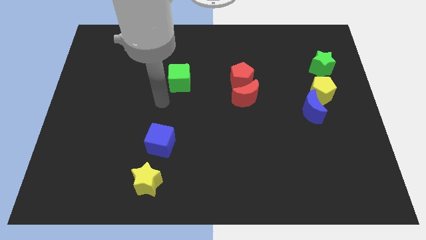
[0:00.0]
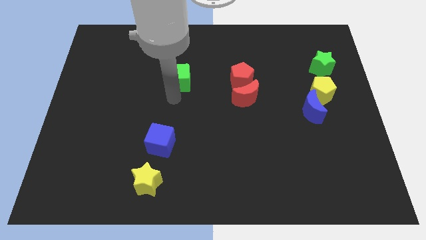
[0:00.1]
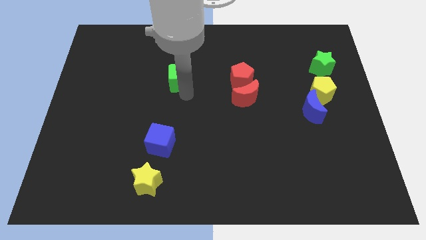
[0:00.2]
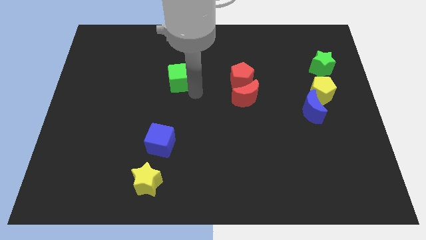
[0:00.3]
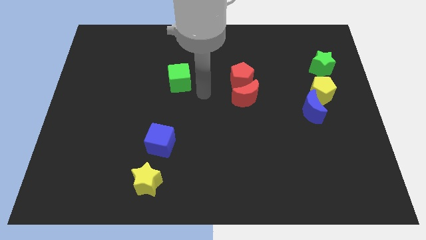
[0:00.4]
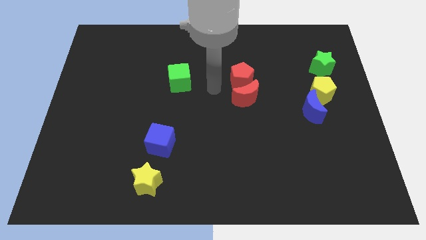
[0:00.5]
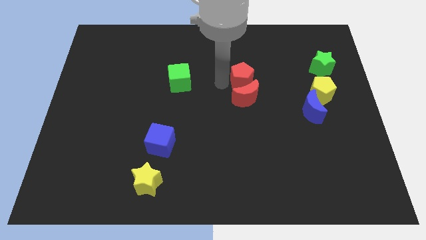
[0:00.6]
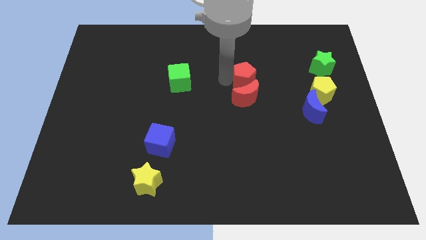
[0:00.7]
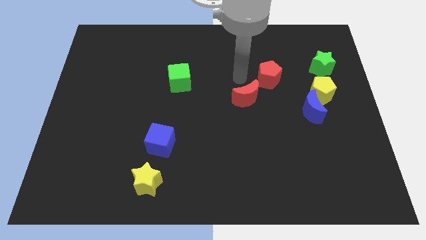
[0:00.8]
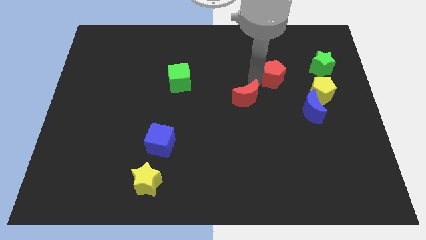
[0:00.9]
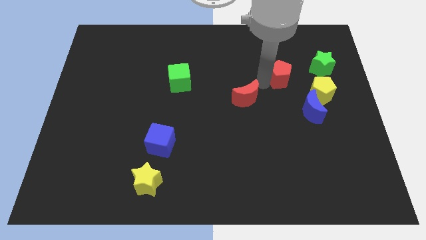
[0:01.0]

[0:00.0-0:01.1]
separate the red moon from the red pentagon

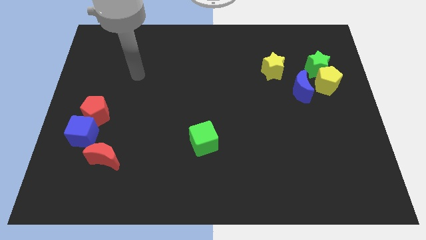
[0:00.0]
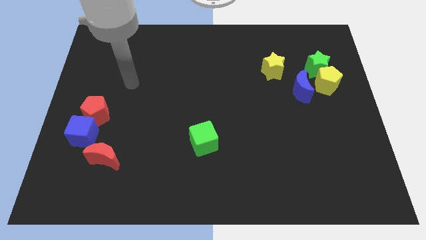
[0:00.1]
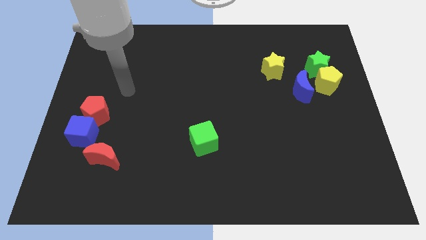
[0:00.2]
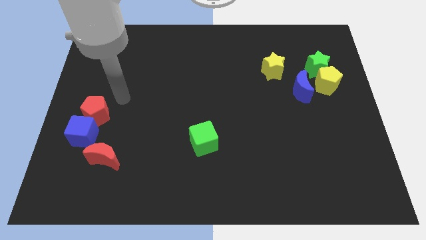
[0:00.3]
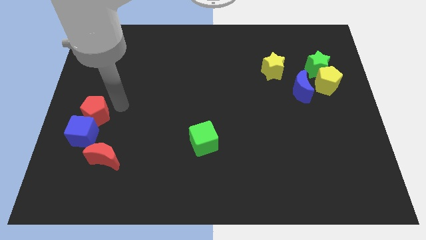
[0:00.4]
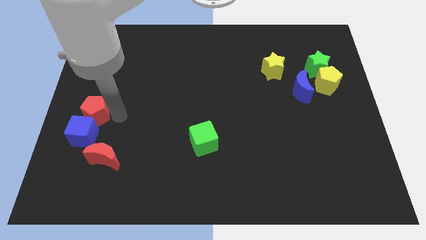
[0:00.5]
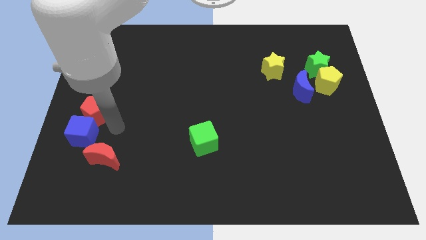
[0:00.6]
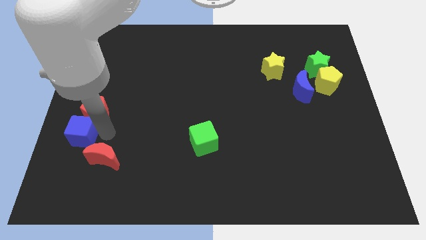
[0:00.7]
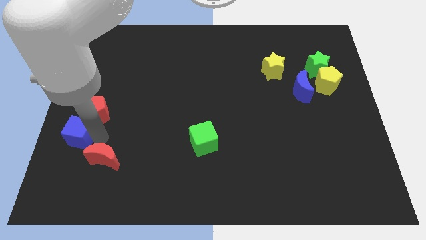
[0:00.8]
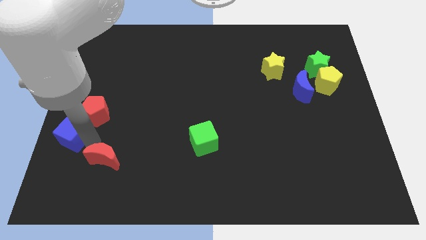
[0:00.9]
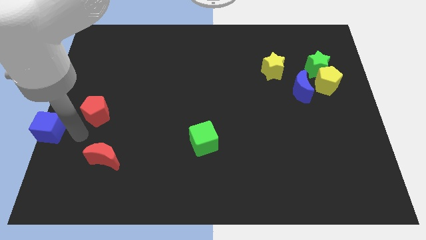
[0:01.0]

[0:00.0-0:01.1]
pull the red pentagon apart from the blue cube

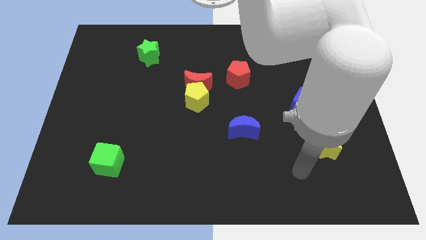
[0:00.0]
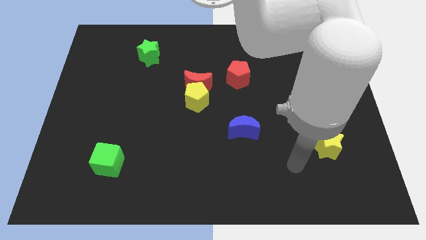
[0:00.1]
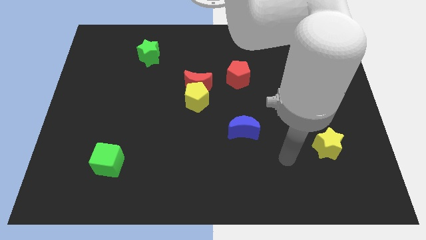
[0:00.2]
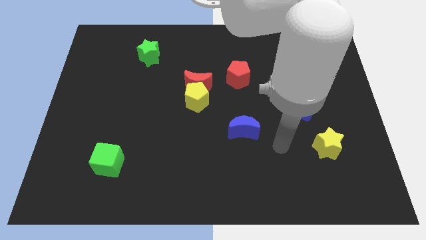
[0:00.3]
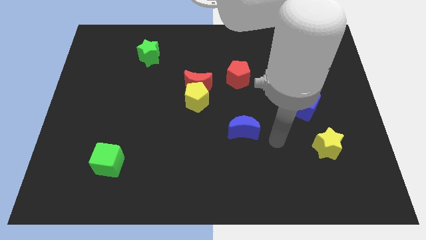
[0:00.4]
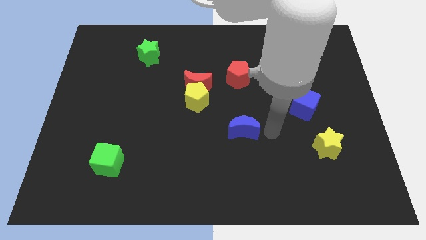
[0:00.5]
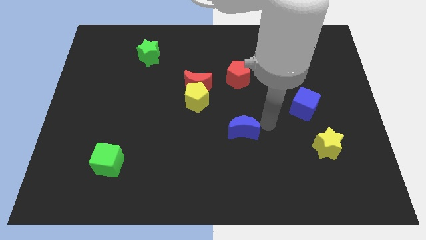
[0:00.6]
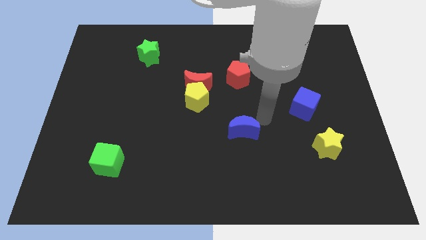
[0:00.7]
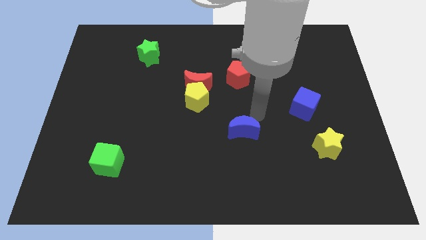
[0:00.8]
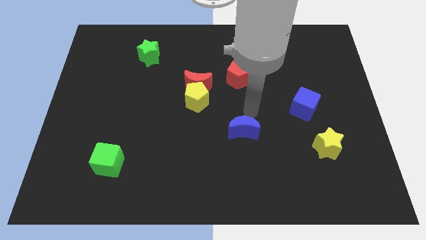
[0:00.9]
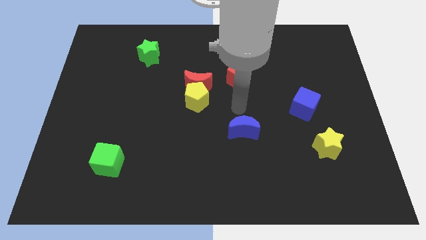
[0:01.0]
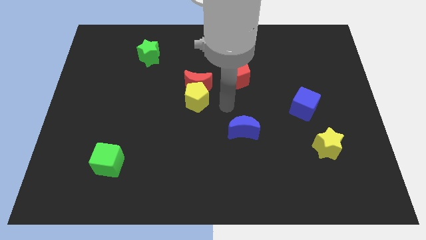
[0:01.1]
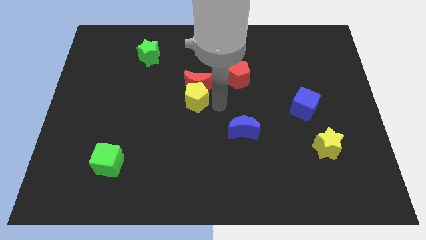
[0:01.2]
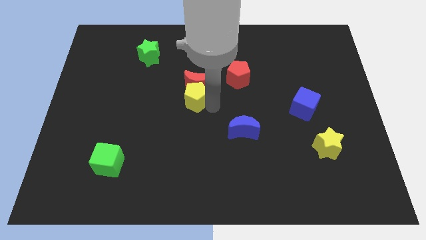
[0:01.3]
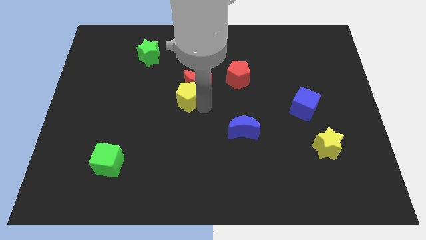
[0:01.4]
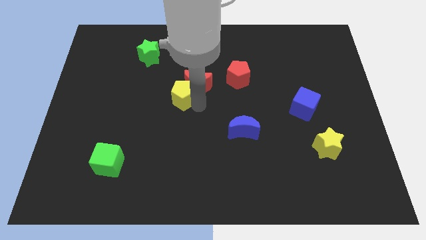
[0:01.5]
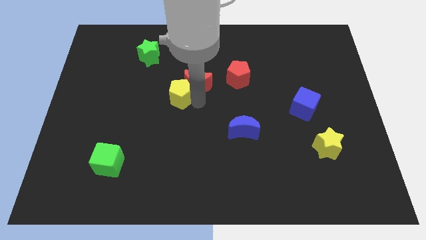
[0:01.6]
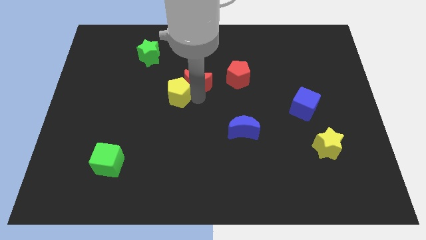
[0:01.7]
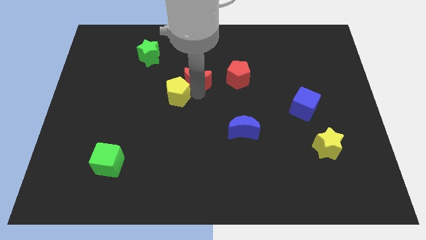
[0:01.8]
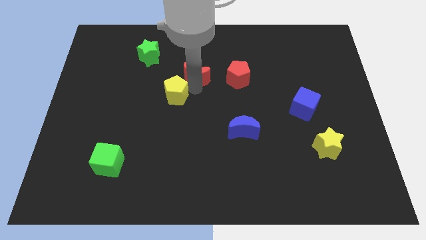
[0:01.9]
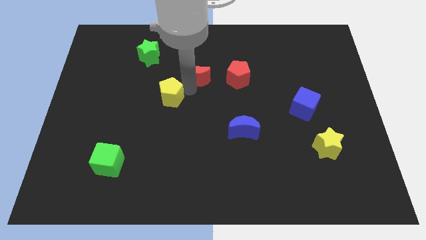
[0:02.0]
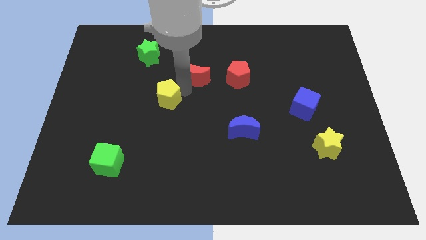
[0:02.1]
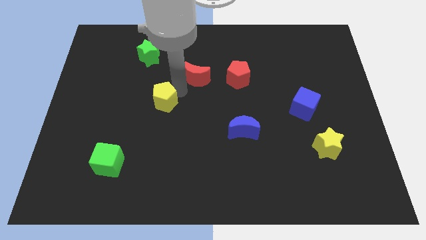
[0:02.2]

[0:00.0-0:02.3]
separate the red moon from the yellow pentagon

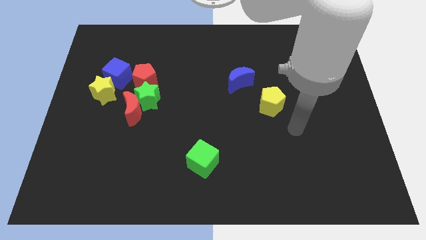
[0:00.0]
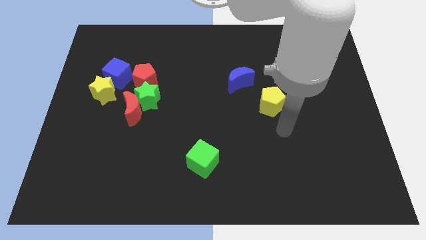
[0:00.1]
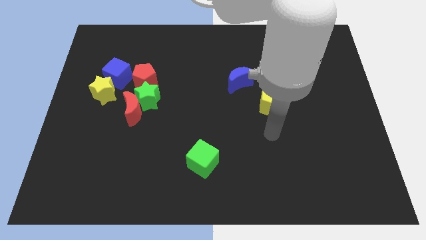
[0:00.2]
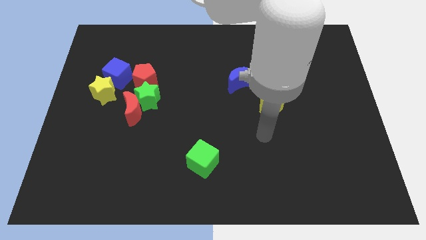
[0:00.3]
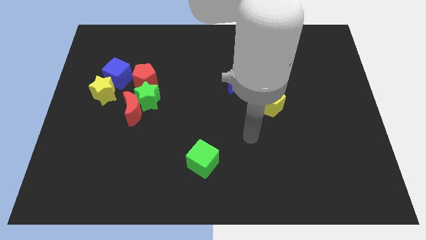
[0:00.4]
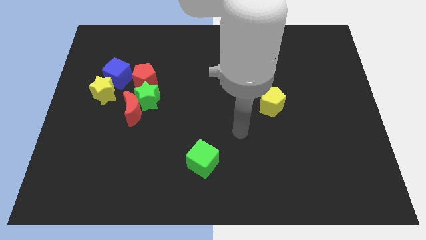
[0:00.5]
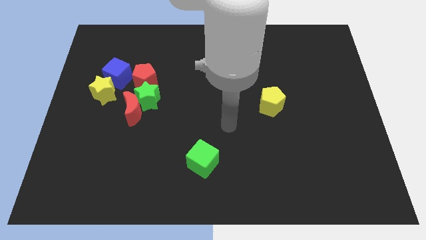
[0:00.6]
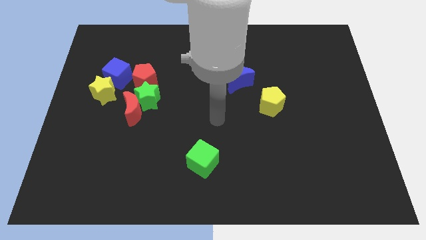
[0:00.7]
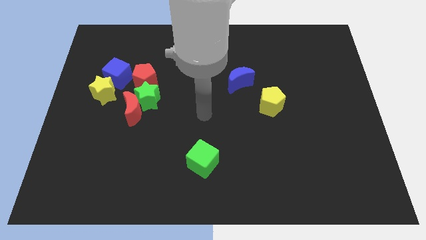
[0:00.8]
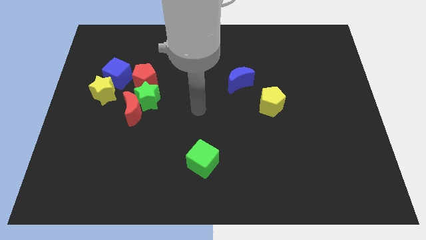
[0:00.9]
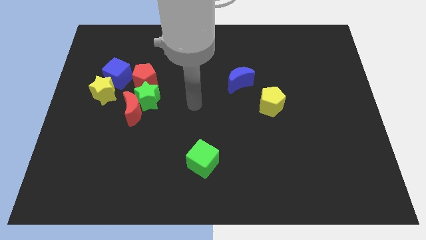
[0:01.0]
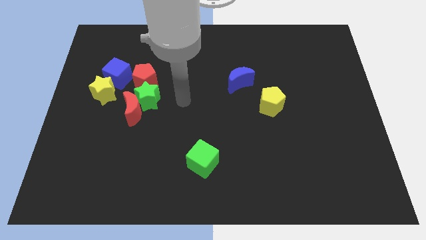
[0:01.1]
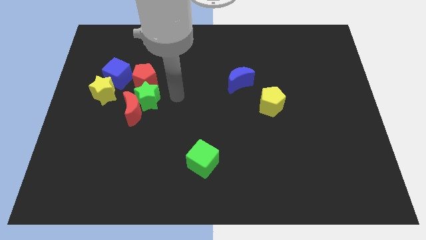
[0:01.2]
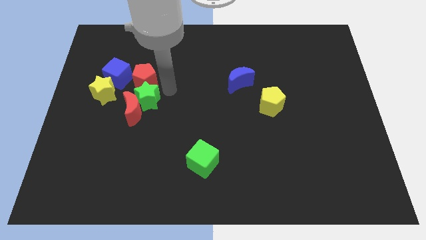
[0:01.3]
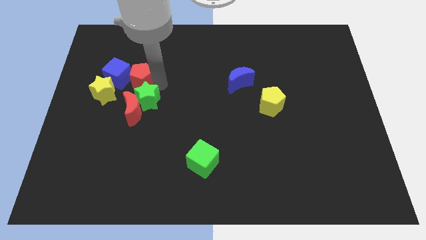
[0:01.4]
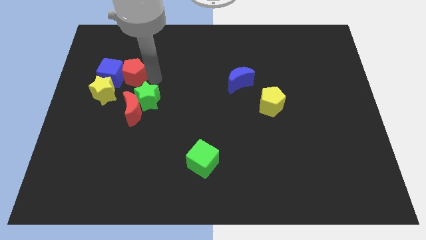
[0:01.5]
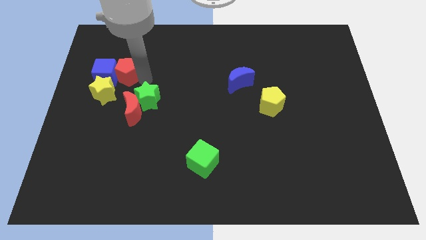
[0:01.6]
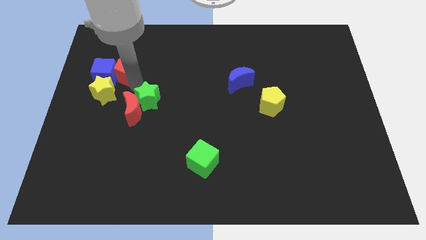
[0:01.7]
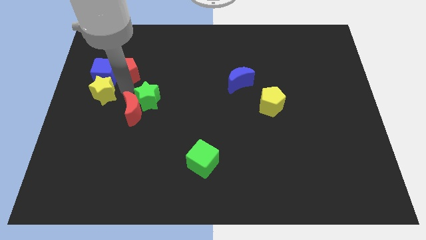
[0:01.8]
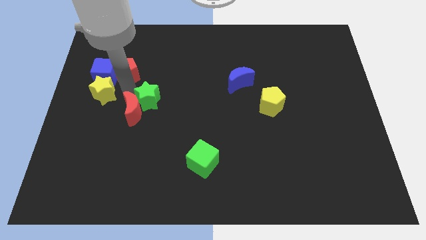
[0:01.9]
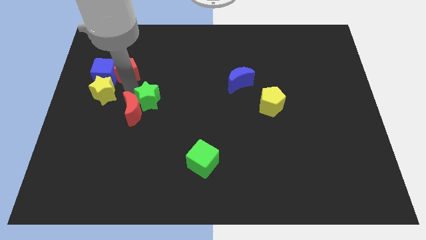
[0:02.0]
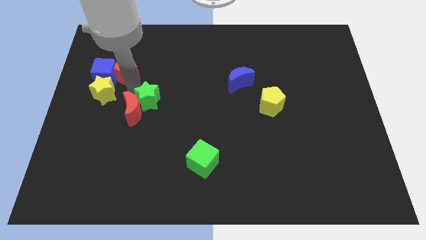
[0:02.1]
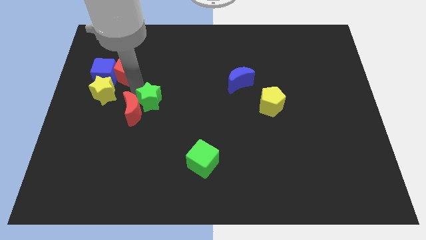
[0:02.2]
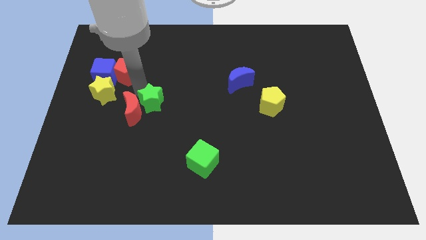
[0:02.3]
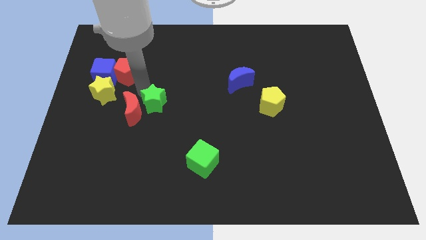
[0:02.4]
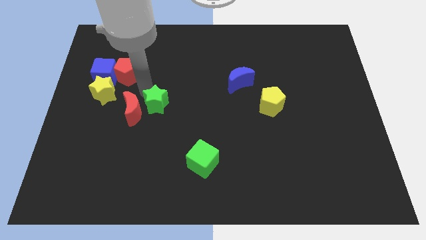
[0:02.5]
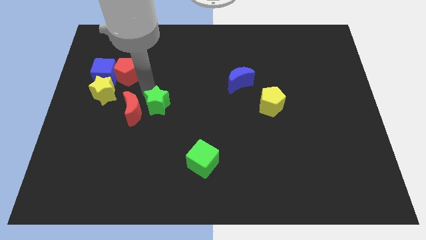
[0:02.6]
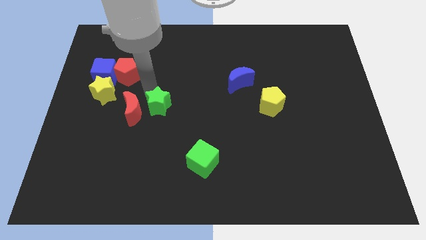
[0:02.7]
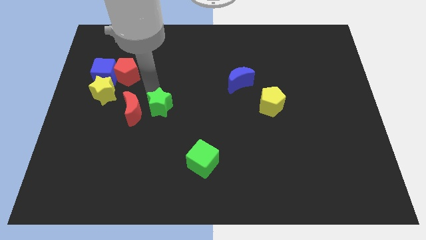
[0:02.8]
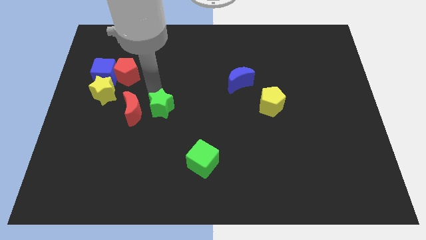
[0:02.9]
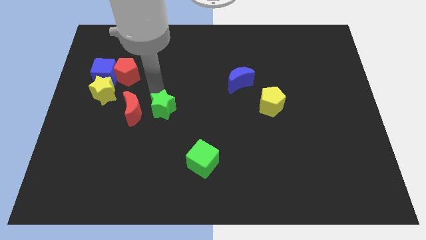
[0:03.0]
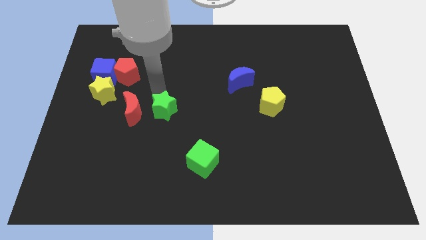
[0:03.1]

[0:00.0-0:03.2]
move the green star away from the red moon and red pentagon

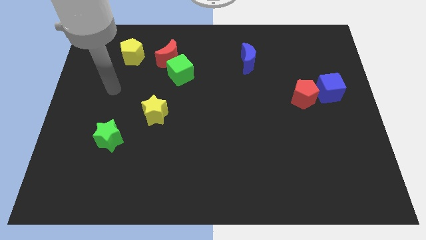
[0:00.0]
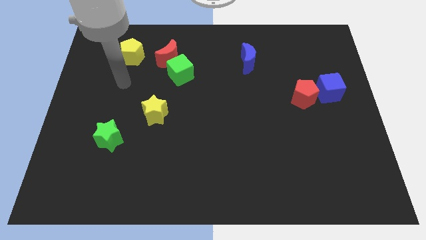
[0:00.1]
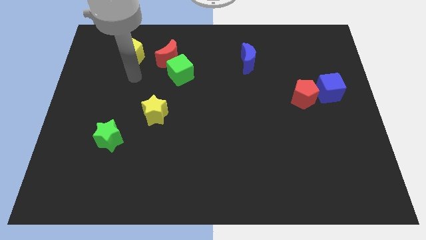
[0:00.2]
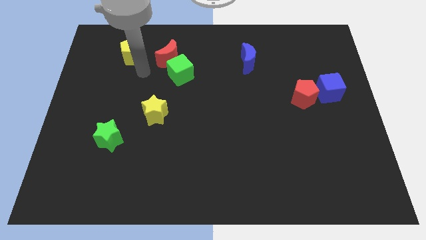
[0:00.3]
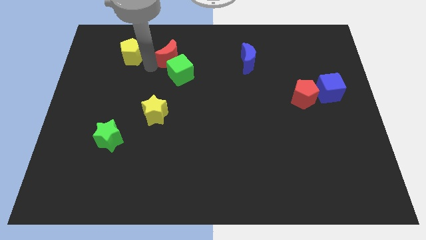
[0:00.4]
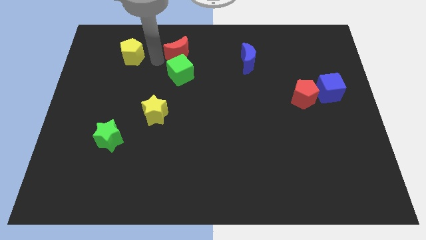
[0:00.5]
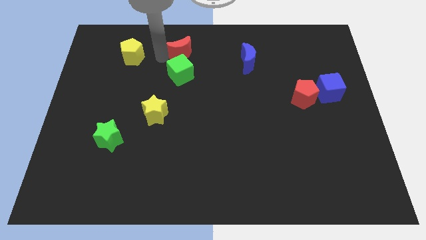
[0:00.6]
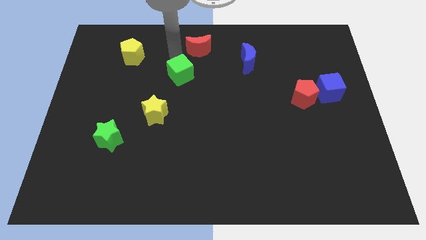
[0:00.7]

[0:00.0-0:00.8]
pull the green cube apart from the red moon

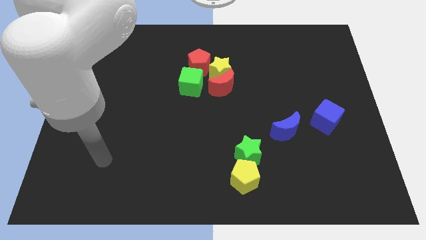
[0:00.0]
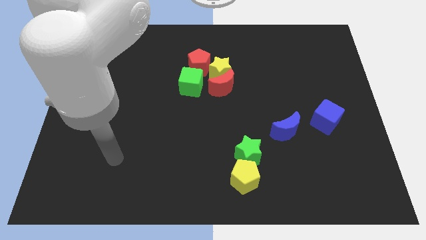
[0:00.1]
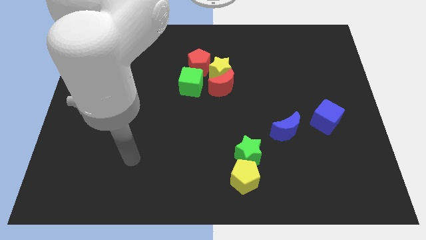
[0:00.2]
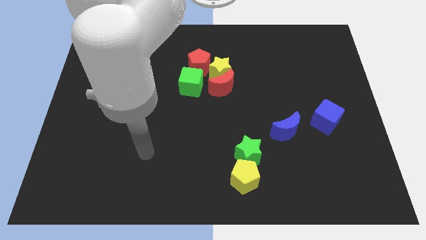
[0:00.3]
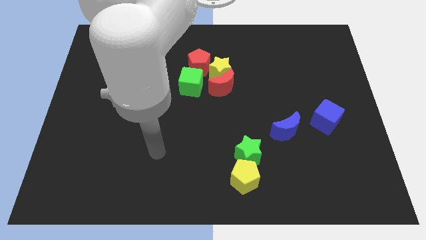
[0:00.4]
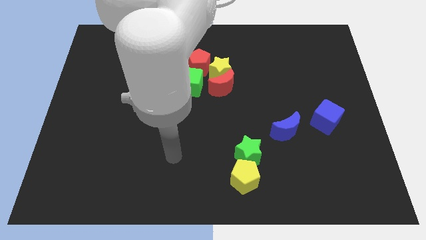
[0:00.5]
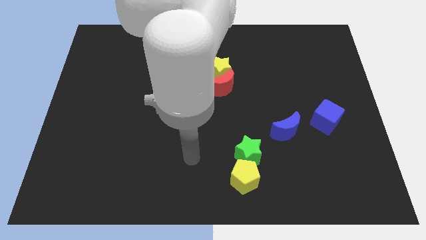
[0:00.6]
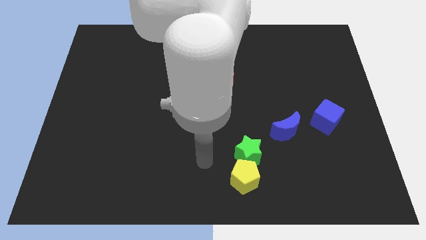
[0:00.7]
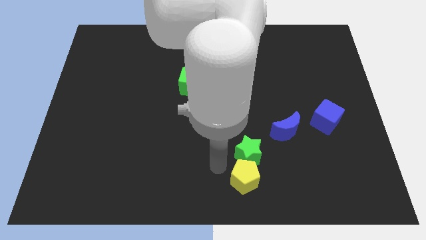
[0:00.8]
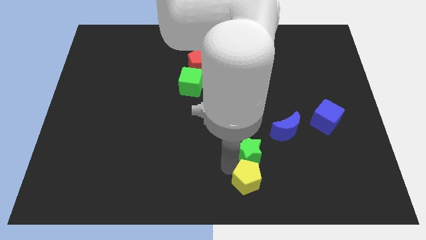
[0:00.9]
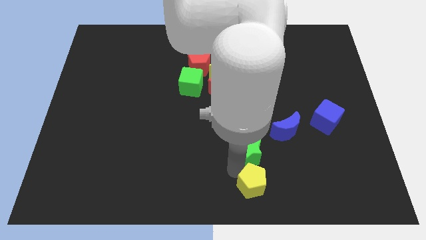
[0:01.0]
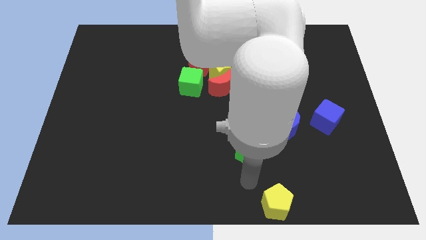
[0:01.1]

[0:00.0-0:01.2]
separate the green star from the yellow pentagon
